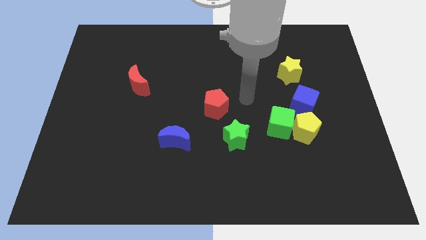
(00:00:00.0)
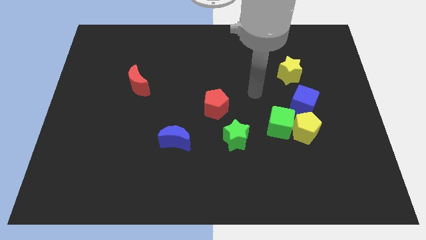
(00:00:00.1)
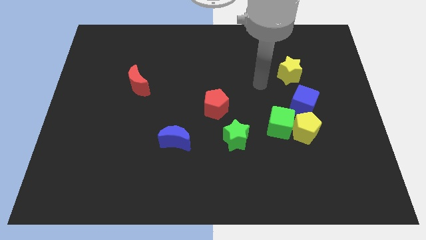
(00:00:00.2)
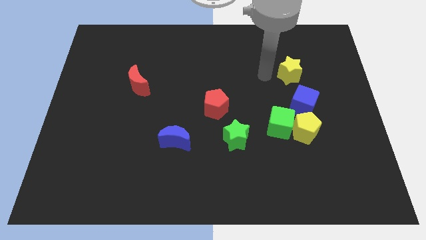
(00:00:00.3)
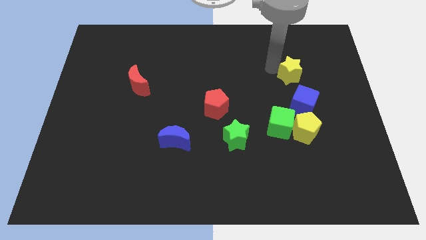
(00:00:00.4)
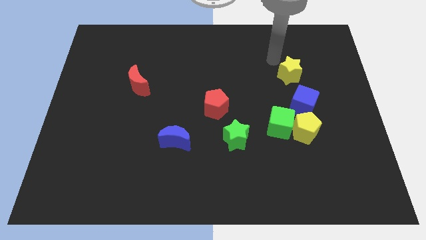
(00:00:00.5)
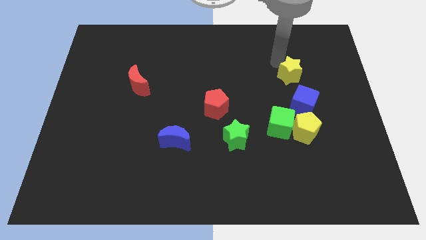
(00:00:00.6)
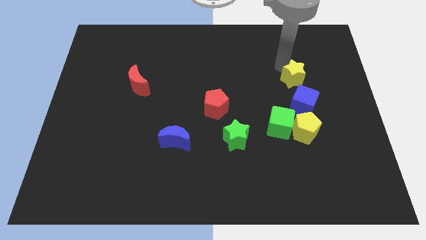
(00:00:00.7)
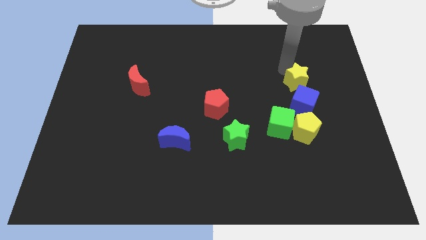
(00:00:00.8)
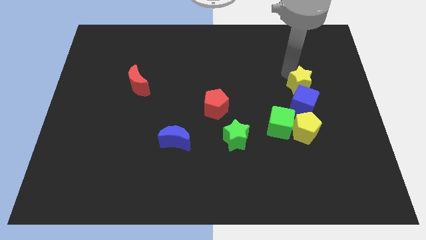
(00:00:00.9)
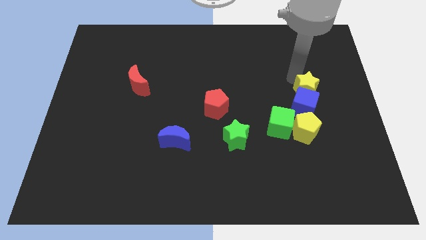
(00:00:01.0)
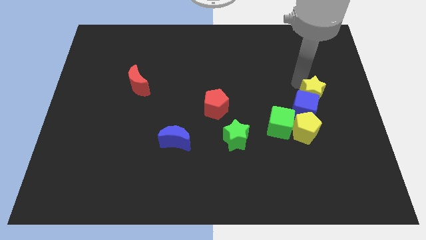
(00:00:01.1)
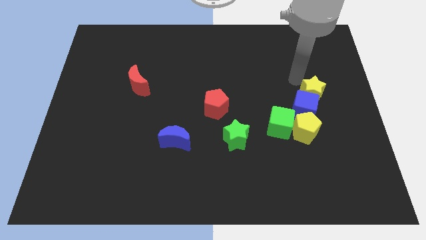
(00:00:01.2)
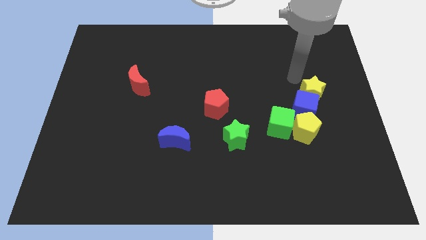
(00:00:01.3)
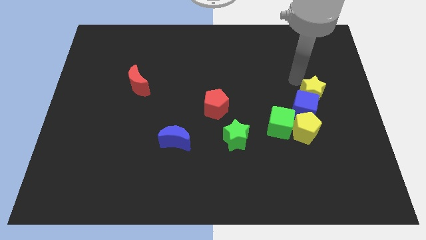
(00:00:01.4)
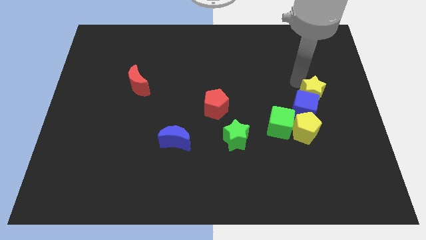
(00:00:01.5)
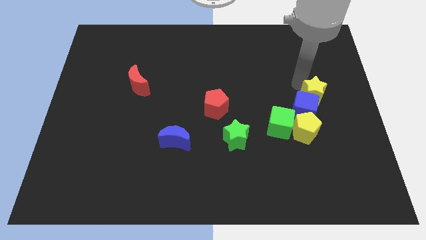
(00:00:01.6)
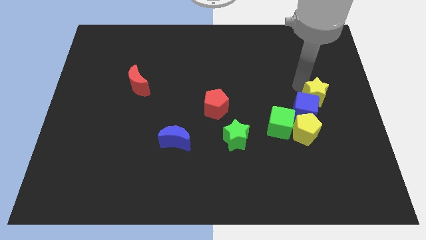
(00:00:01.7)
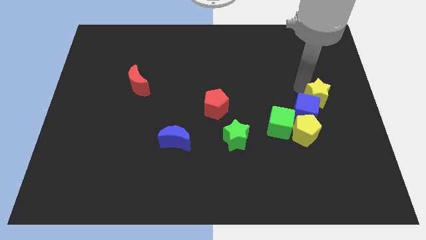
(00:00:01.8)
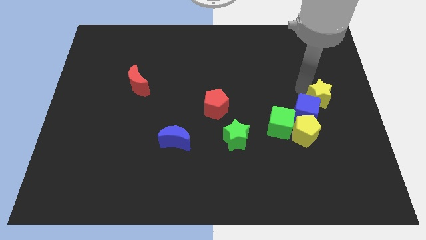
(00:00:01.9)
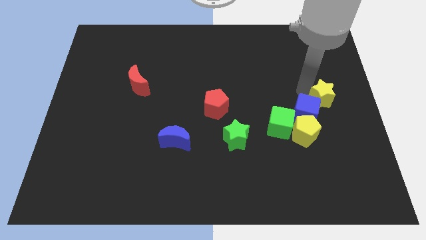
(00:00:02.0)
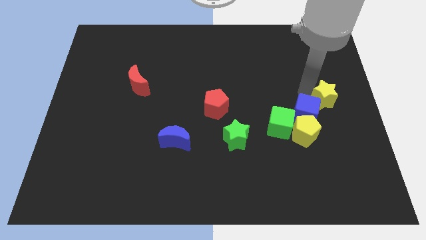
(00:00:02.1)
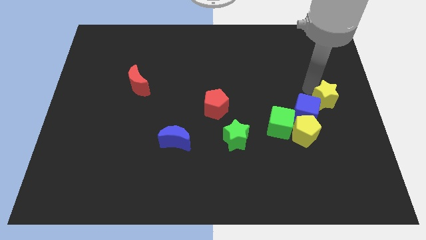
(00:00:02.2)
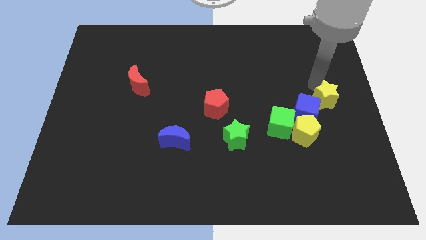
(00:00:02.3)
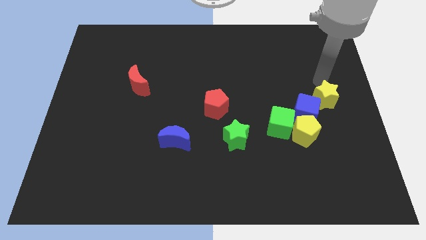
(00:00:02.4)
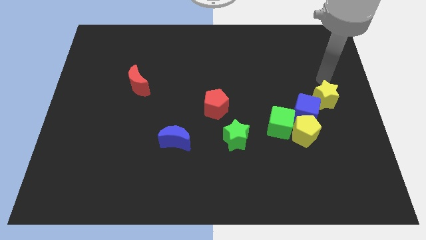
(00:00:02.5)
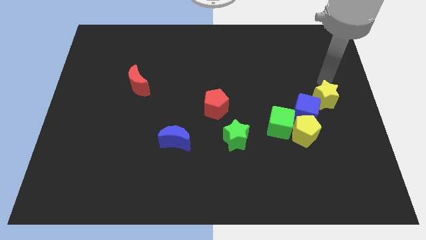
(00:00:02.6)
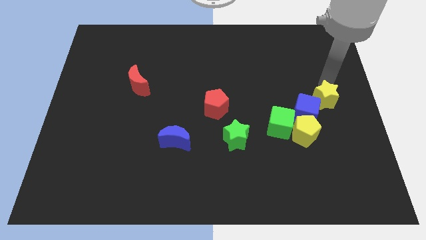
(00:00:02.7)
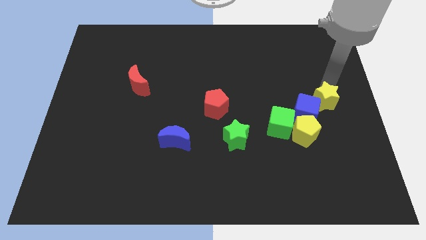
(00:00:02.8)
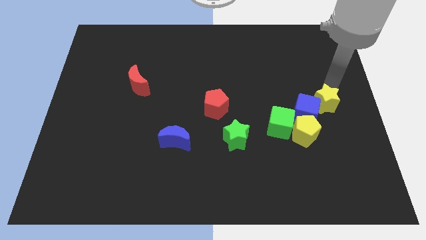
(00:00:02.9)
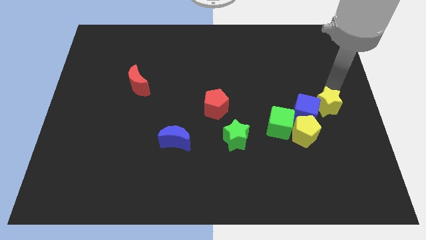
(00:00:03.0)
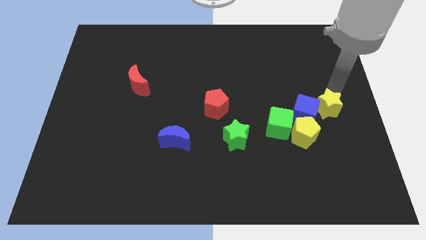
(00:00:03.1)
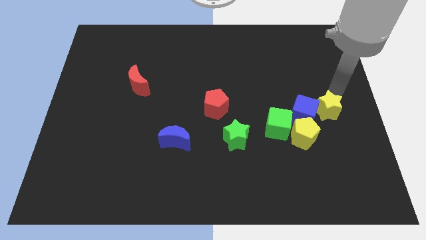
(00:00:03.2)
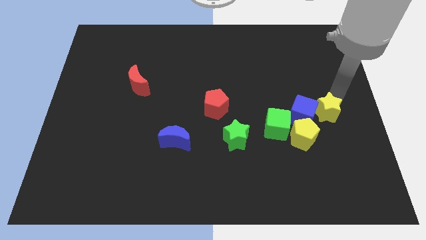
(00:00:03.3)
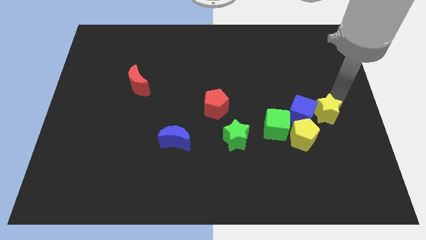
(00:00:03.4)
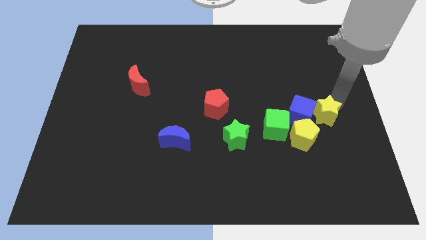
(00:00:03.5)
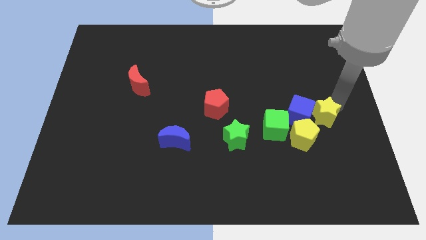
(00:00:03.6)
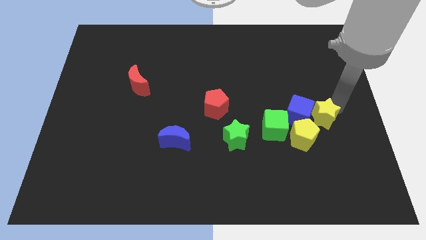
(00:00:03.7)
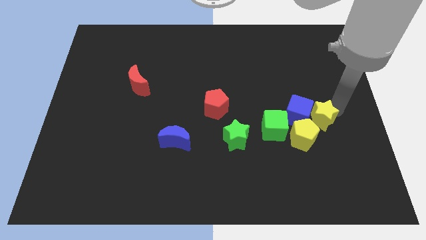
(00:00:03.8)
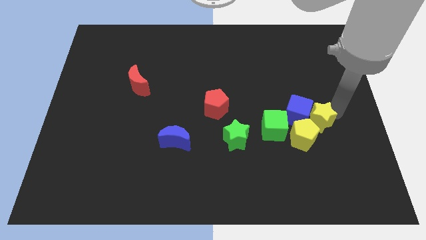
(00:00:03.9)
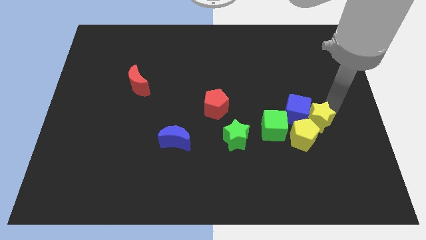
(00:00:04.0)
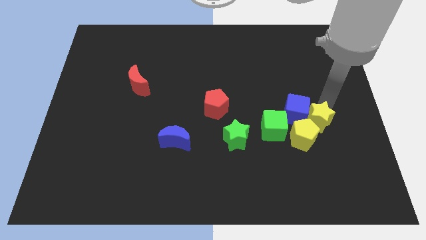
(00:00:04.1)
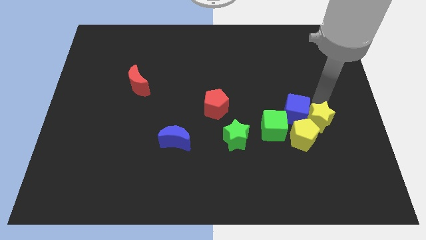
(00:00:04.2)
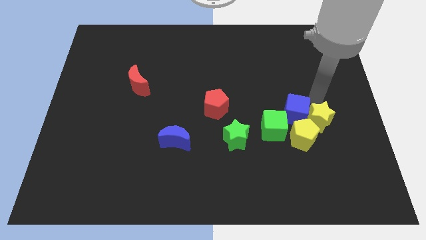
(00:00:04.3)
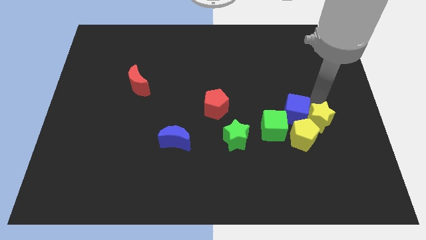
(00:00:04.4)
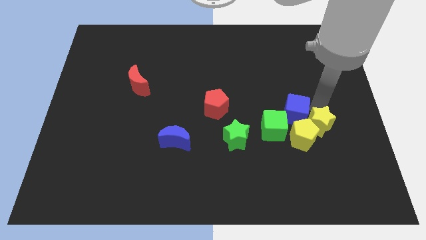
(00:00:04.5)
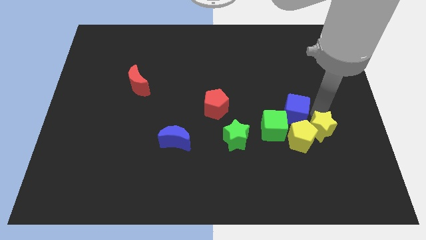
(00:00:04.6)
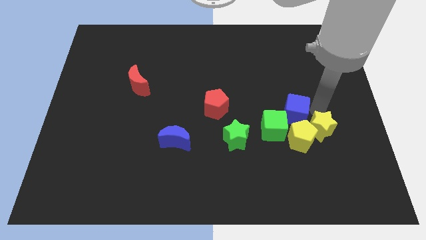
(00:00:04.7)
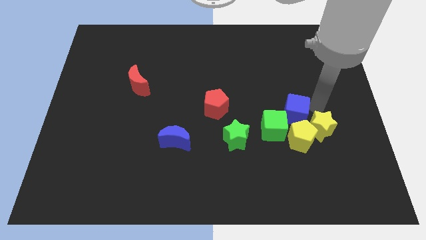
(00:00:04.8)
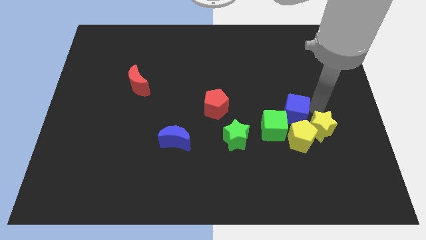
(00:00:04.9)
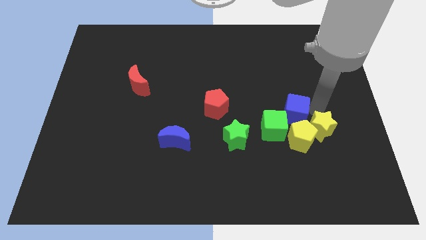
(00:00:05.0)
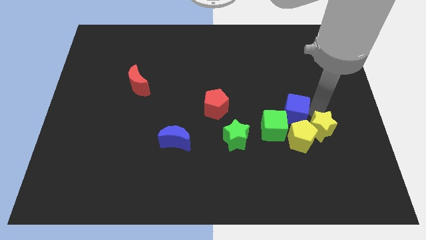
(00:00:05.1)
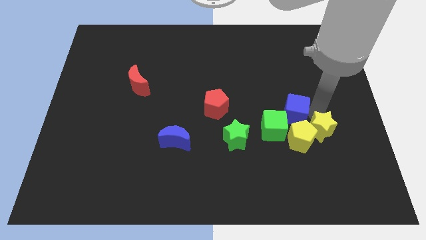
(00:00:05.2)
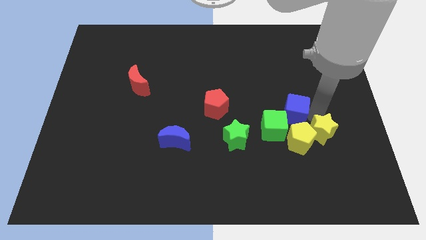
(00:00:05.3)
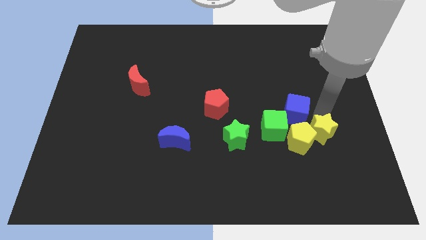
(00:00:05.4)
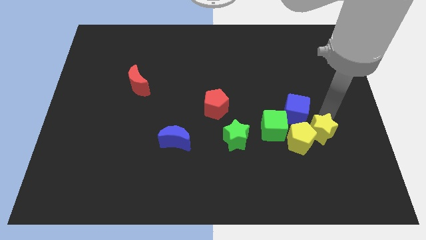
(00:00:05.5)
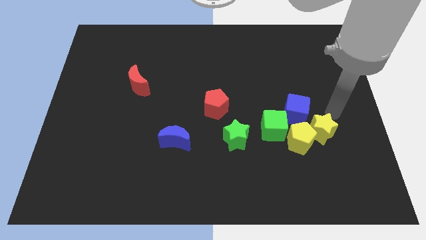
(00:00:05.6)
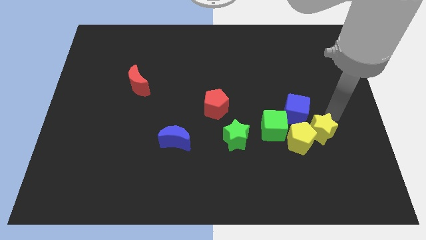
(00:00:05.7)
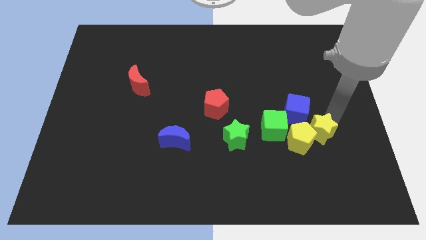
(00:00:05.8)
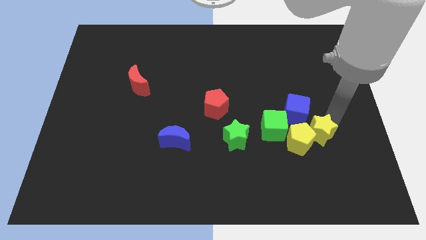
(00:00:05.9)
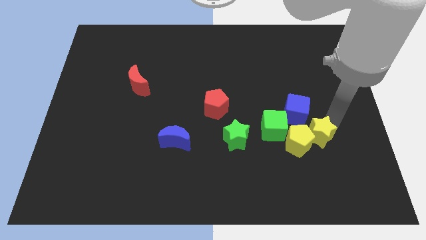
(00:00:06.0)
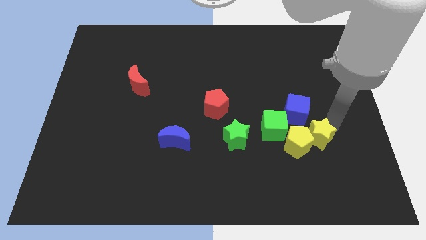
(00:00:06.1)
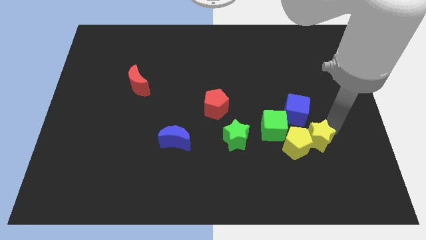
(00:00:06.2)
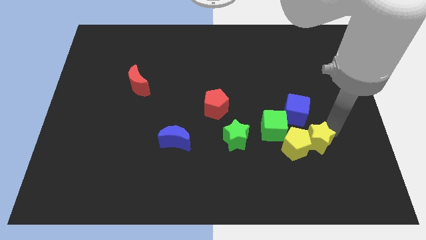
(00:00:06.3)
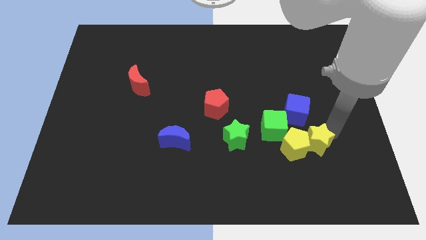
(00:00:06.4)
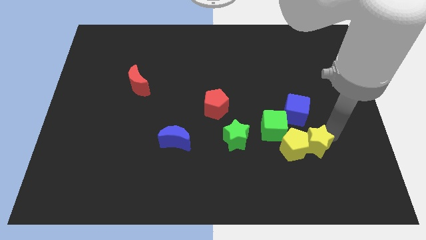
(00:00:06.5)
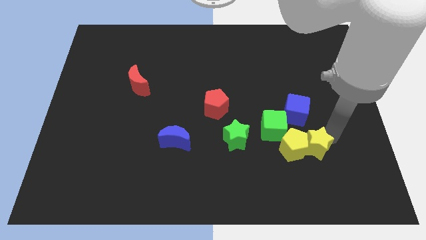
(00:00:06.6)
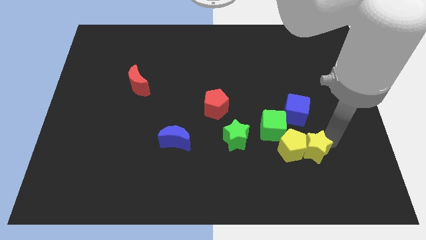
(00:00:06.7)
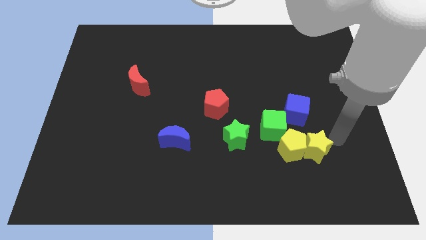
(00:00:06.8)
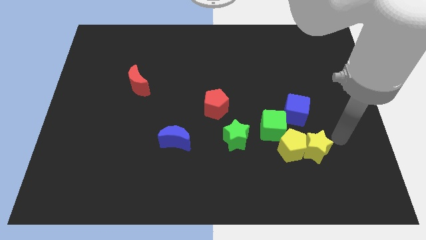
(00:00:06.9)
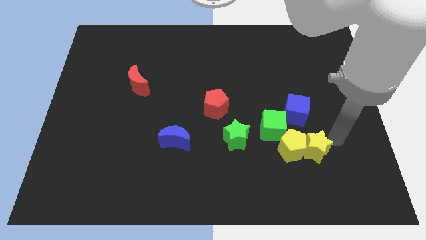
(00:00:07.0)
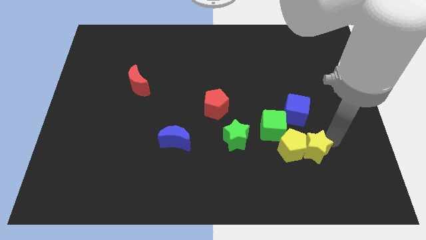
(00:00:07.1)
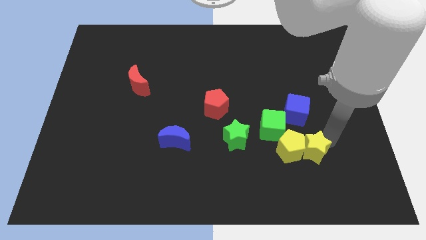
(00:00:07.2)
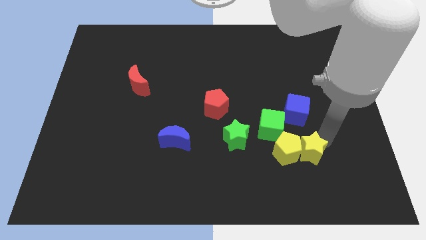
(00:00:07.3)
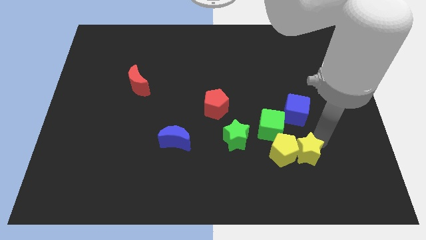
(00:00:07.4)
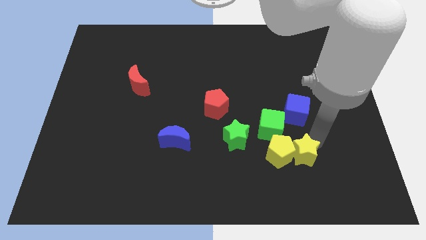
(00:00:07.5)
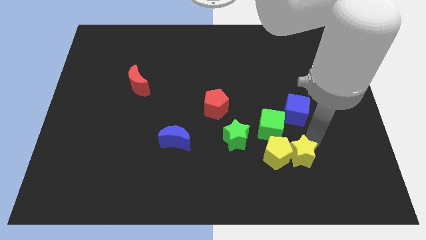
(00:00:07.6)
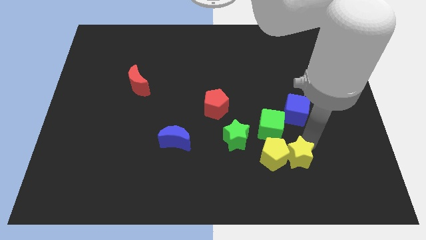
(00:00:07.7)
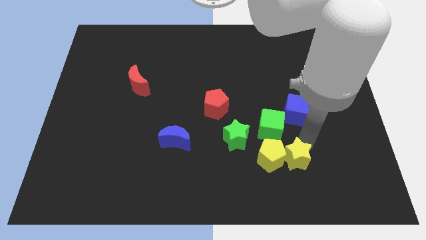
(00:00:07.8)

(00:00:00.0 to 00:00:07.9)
slide the yellow star to the bottom of the green cube
